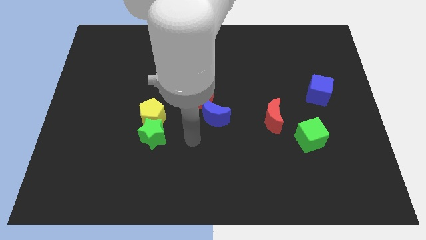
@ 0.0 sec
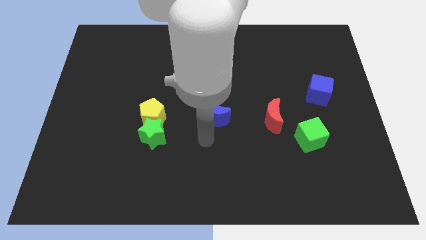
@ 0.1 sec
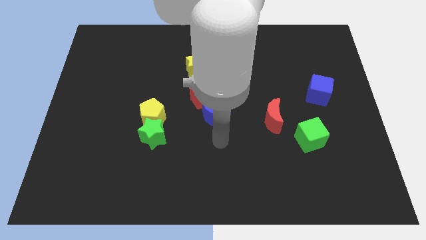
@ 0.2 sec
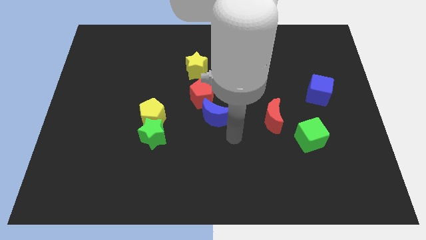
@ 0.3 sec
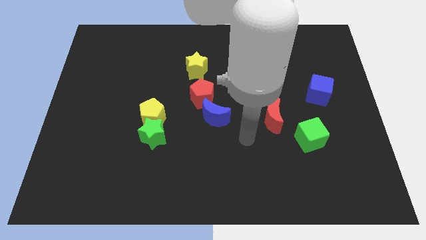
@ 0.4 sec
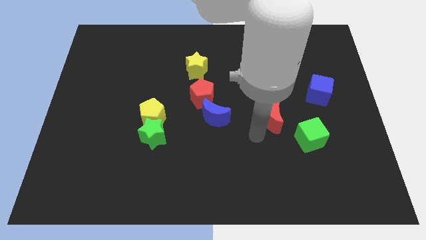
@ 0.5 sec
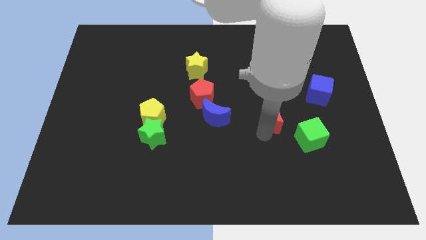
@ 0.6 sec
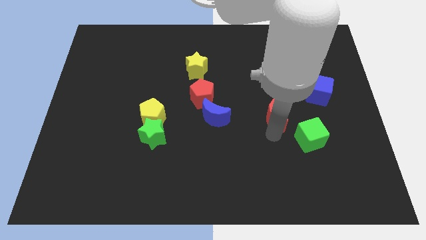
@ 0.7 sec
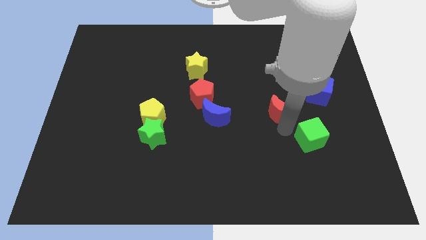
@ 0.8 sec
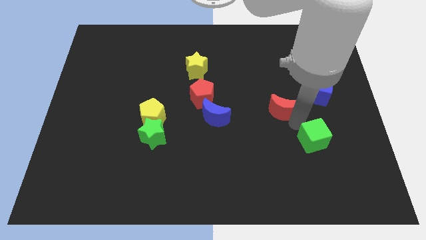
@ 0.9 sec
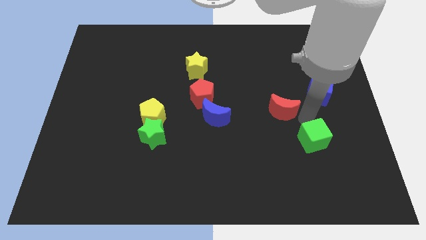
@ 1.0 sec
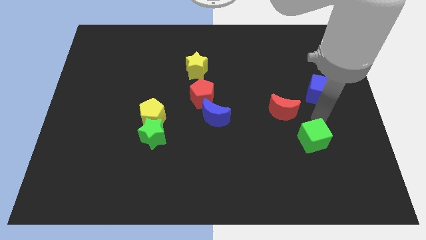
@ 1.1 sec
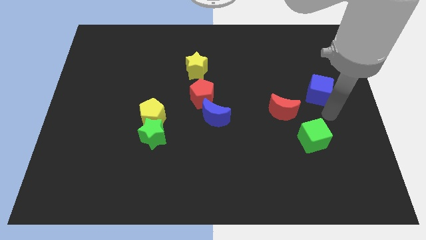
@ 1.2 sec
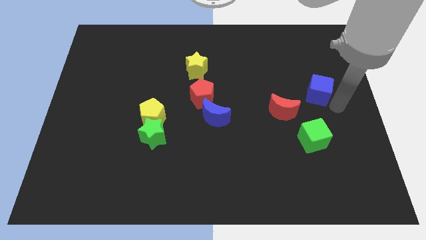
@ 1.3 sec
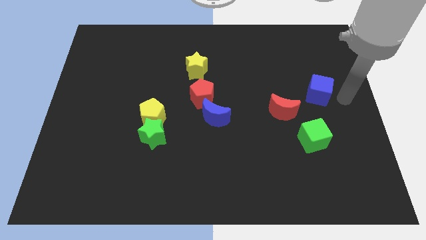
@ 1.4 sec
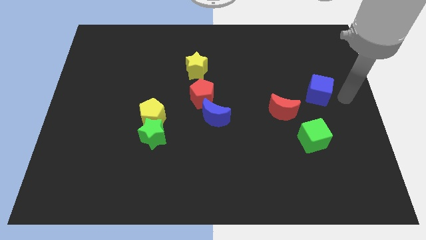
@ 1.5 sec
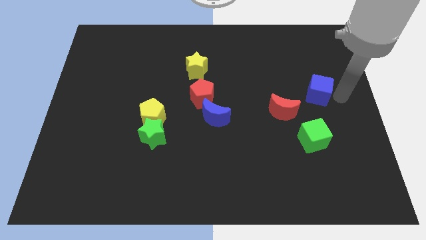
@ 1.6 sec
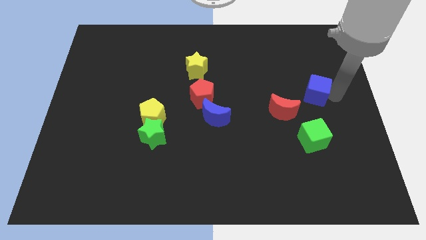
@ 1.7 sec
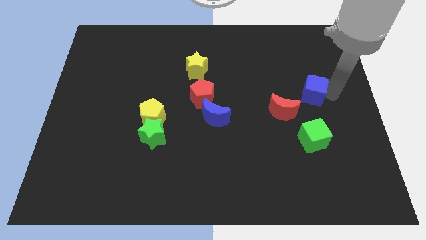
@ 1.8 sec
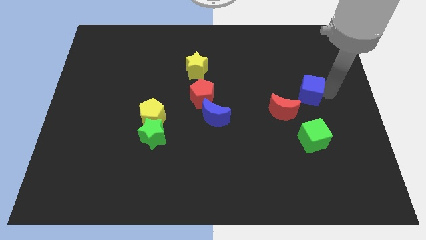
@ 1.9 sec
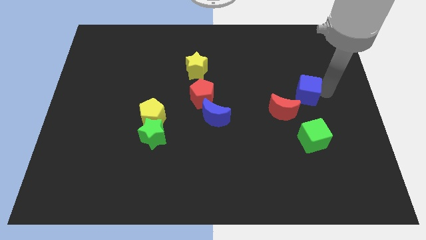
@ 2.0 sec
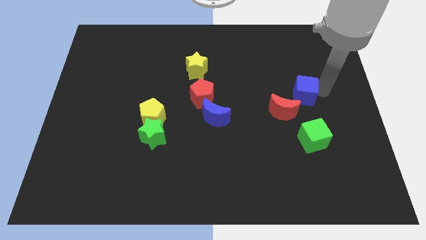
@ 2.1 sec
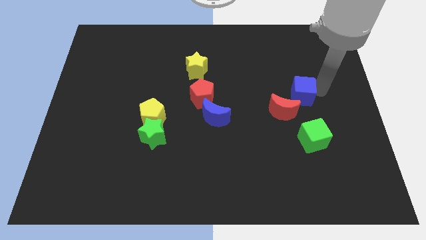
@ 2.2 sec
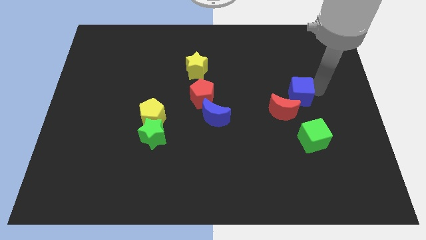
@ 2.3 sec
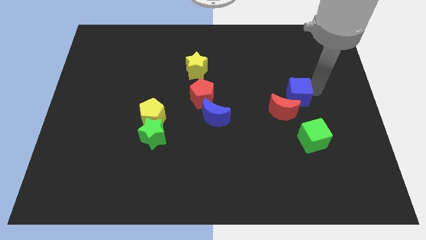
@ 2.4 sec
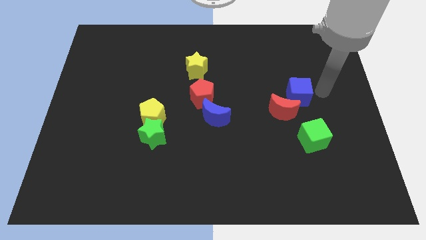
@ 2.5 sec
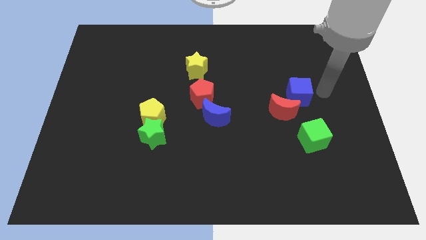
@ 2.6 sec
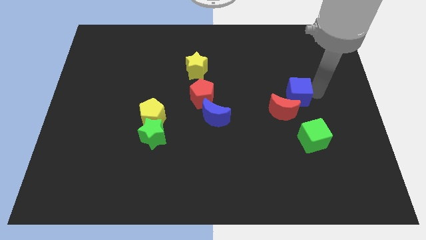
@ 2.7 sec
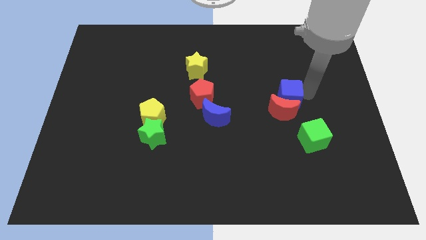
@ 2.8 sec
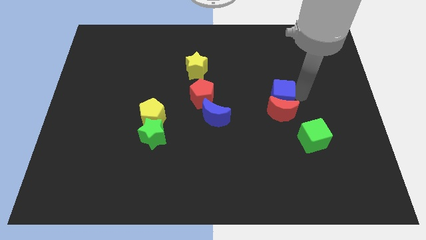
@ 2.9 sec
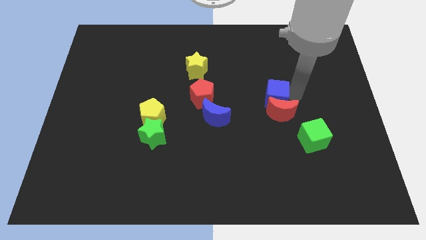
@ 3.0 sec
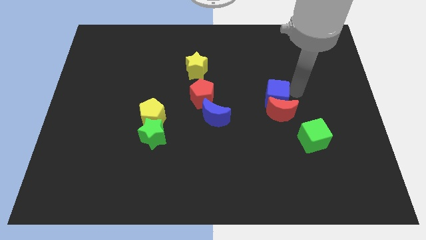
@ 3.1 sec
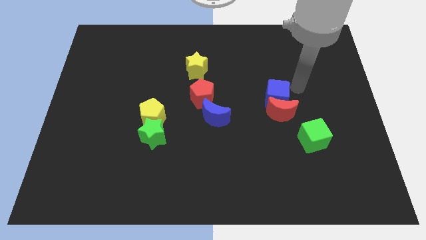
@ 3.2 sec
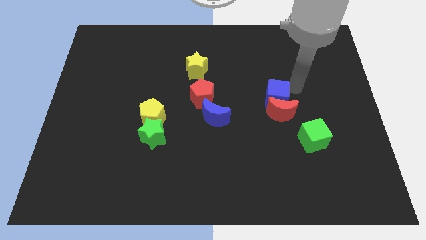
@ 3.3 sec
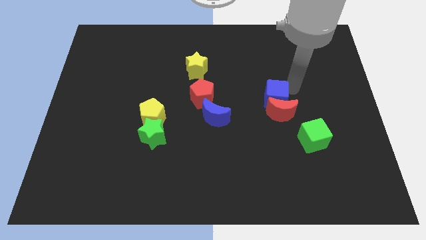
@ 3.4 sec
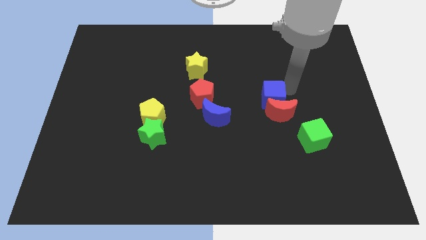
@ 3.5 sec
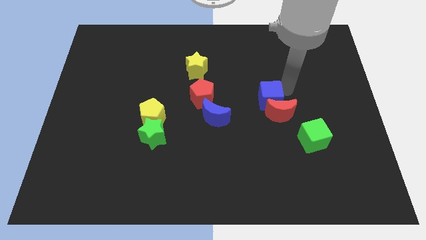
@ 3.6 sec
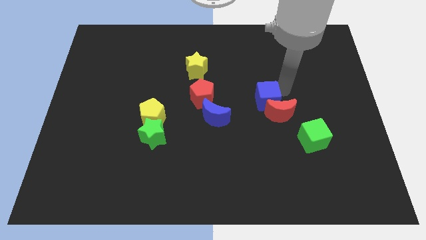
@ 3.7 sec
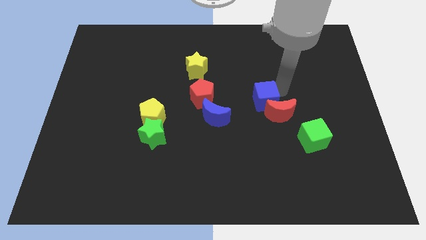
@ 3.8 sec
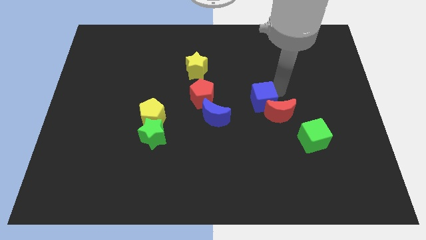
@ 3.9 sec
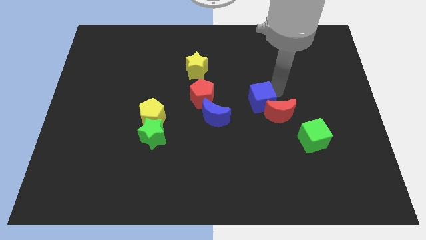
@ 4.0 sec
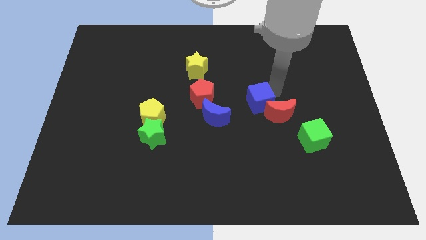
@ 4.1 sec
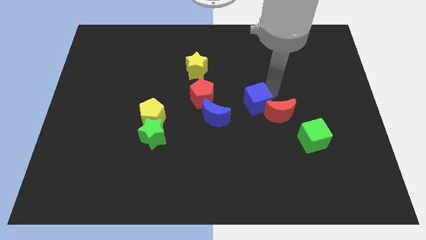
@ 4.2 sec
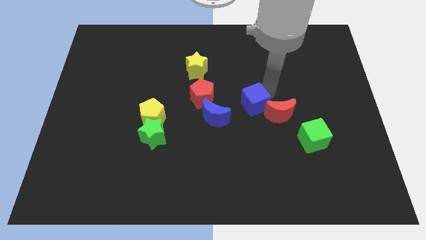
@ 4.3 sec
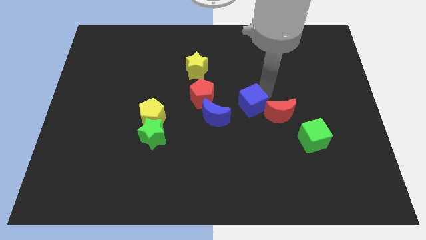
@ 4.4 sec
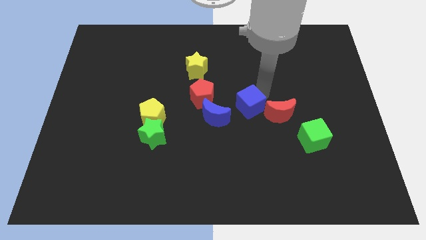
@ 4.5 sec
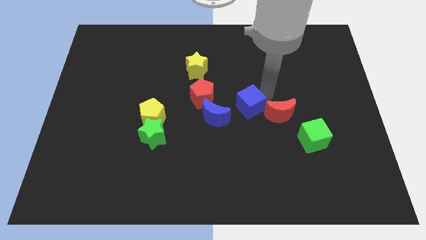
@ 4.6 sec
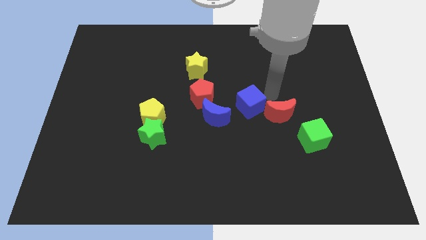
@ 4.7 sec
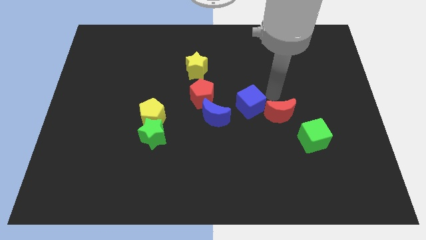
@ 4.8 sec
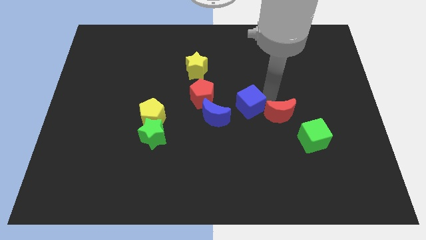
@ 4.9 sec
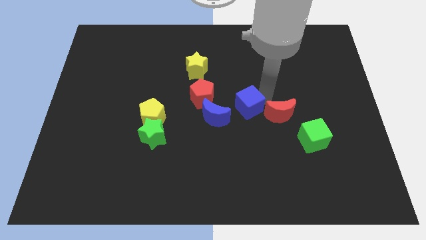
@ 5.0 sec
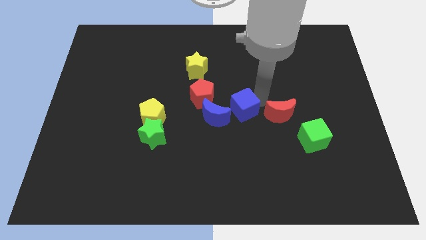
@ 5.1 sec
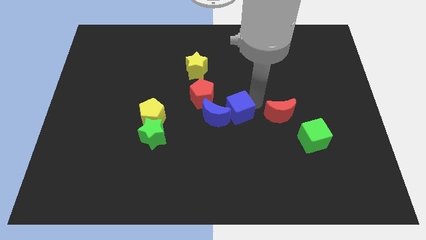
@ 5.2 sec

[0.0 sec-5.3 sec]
move the blue cube next to the blue moon
